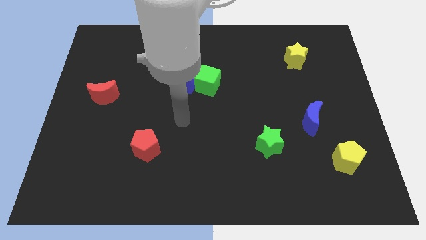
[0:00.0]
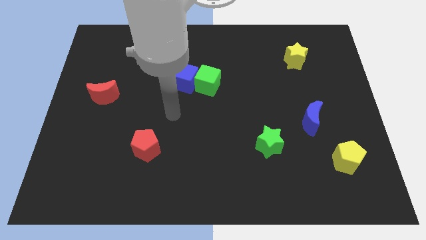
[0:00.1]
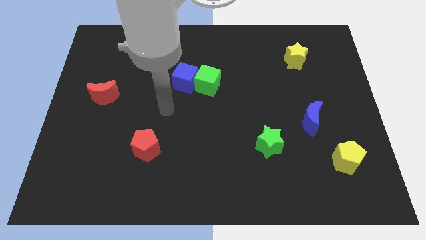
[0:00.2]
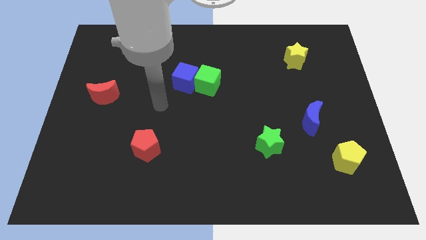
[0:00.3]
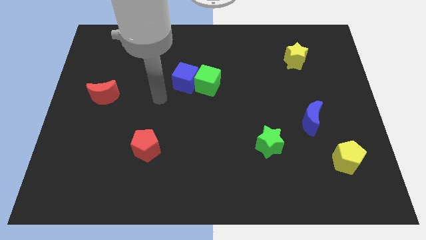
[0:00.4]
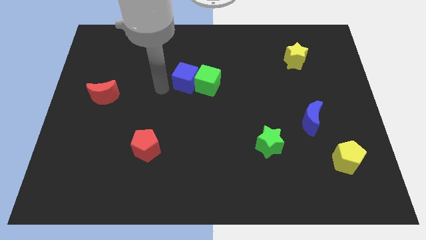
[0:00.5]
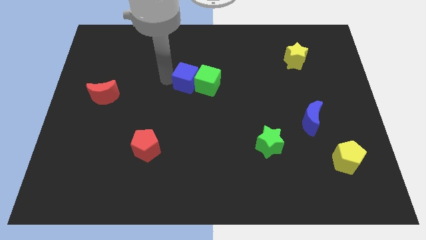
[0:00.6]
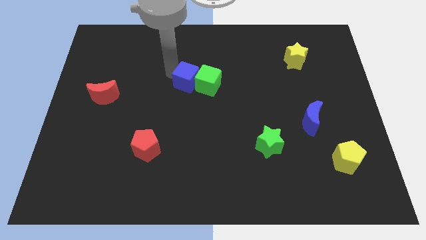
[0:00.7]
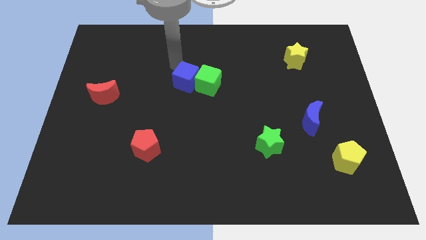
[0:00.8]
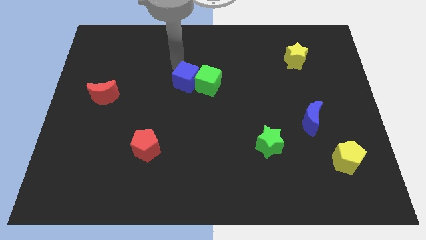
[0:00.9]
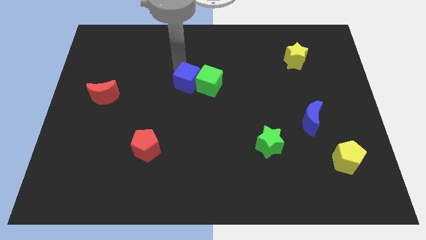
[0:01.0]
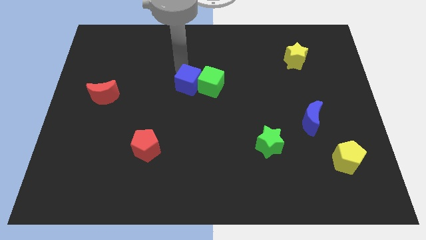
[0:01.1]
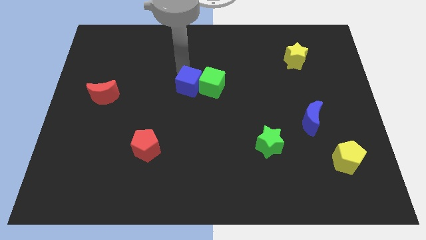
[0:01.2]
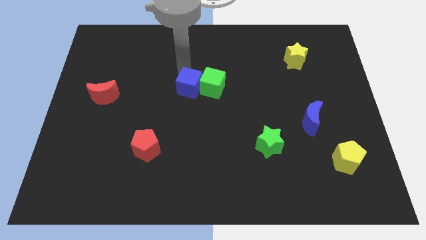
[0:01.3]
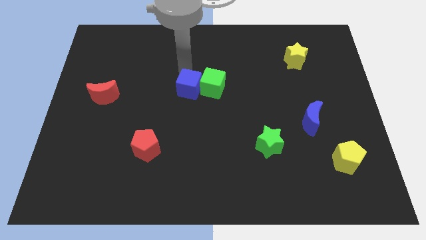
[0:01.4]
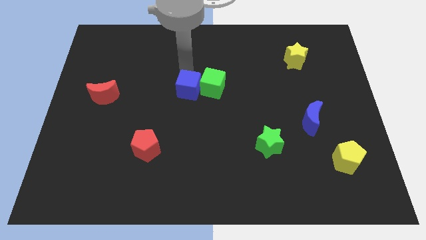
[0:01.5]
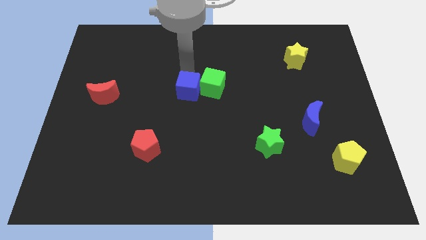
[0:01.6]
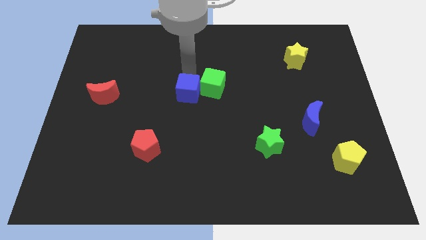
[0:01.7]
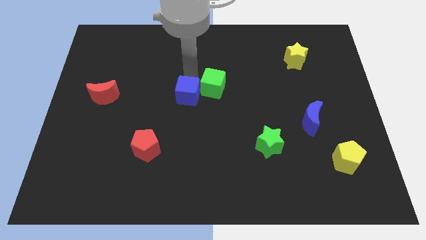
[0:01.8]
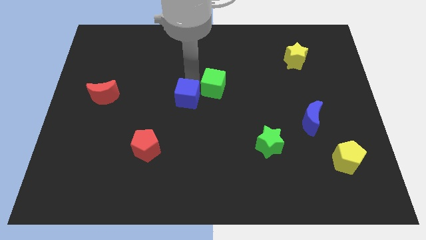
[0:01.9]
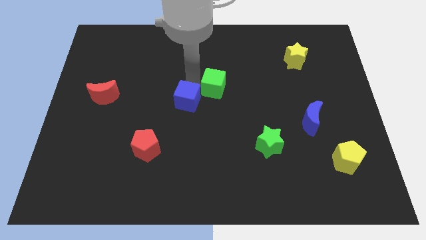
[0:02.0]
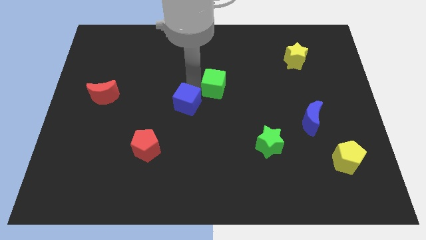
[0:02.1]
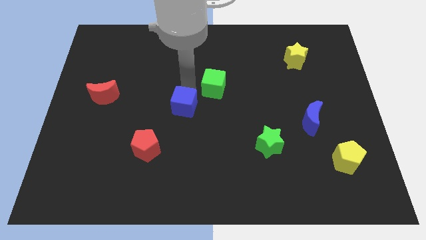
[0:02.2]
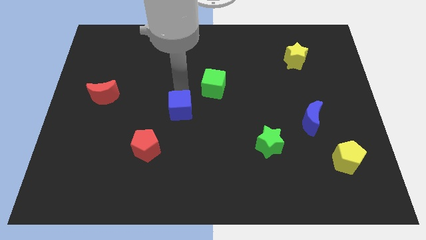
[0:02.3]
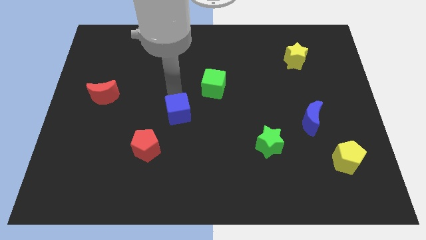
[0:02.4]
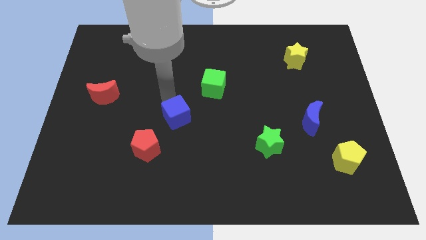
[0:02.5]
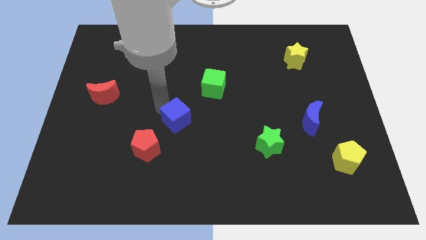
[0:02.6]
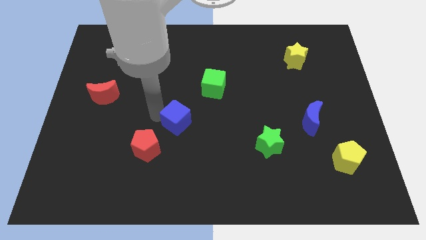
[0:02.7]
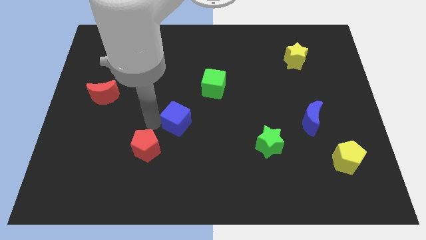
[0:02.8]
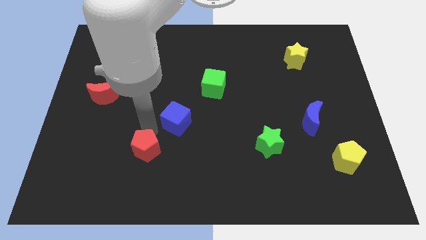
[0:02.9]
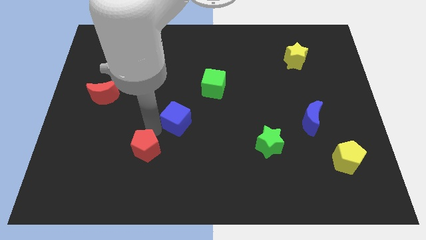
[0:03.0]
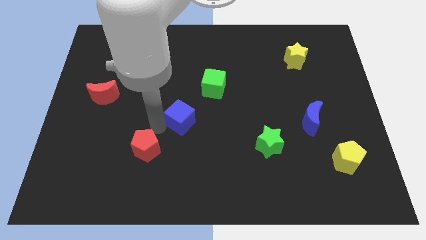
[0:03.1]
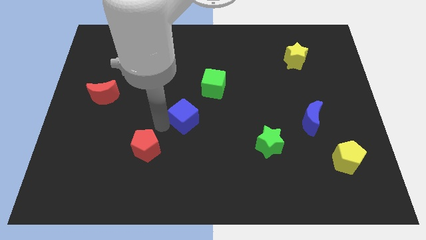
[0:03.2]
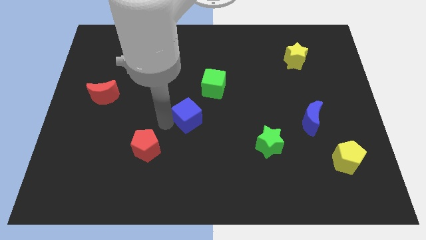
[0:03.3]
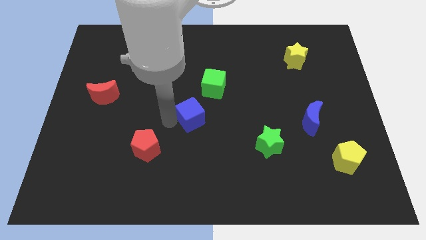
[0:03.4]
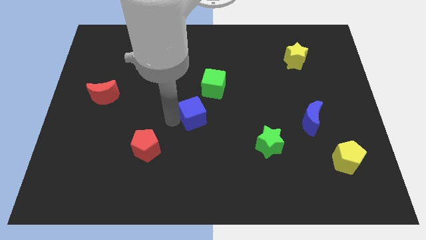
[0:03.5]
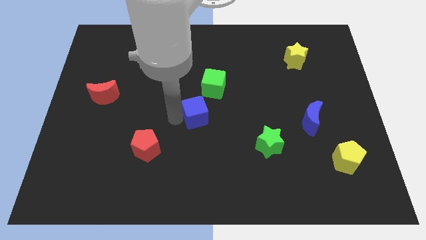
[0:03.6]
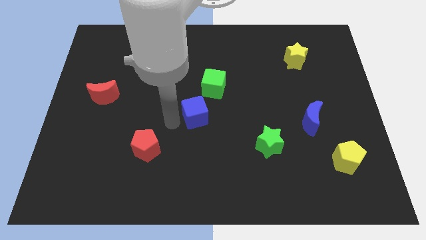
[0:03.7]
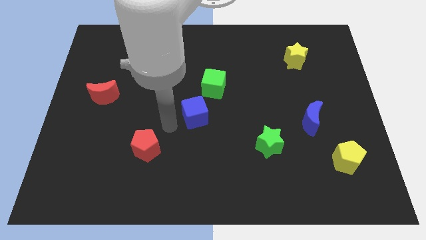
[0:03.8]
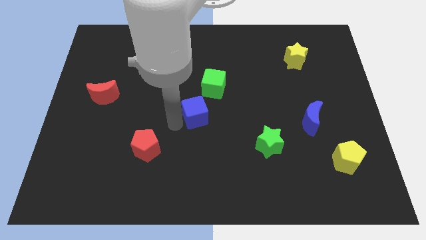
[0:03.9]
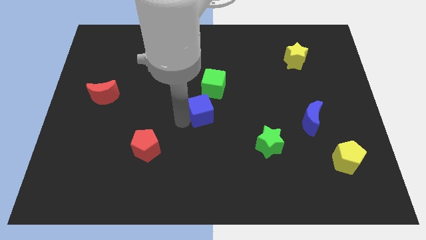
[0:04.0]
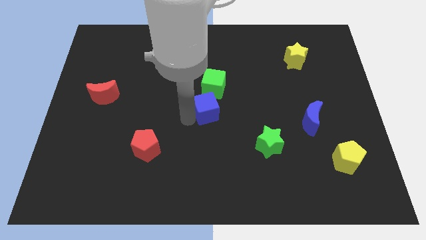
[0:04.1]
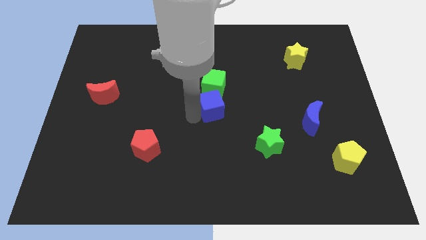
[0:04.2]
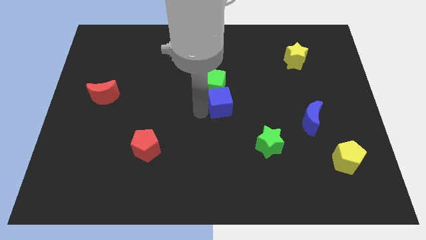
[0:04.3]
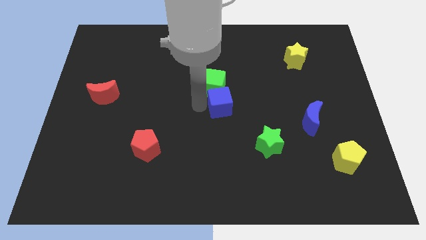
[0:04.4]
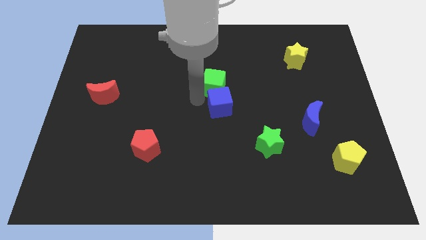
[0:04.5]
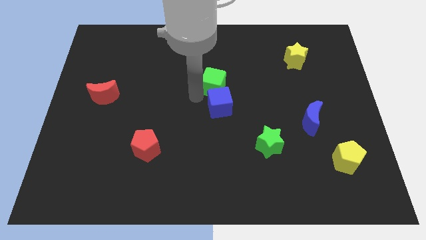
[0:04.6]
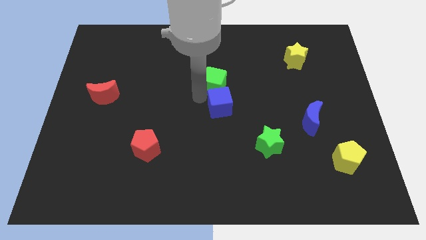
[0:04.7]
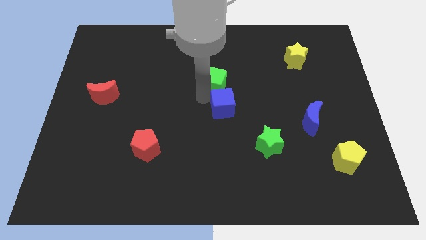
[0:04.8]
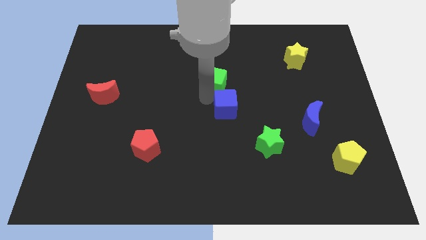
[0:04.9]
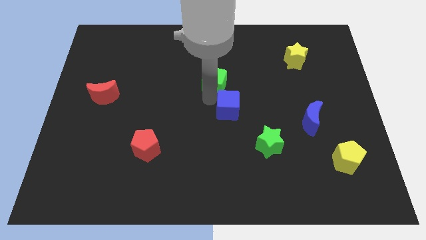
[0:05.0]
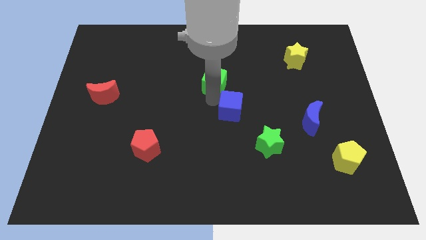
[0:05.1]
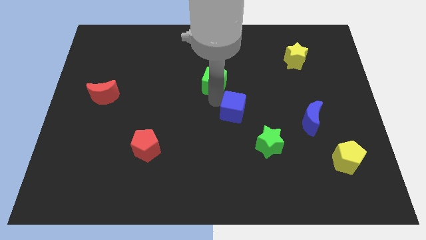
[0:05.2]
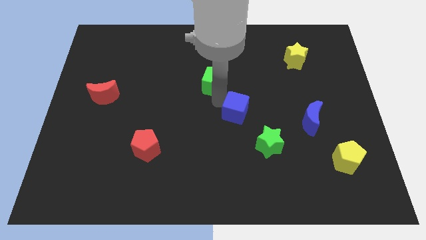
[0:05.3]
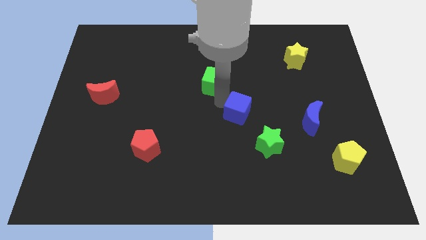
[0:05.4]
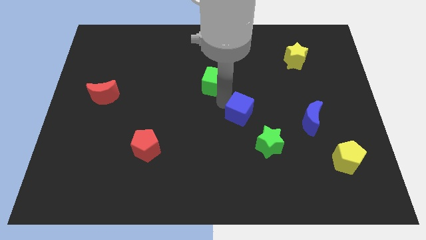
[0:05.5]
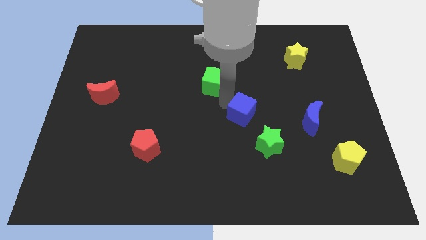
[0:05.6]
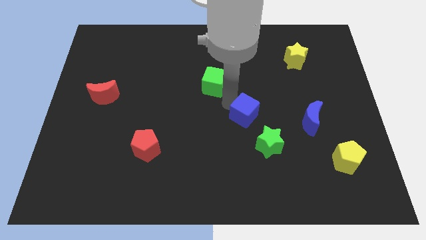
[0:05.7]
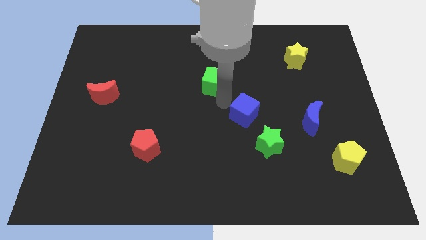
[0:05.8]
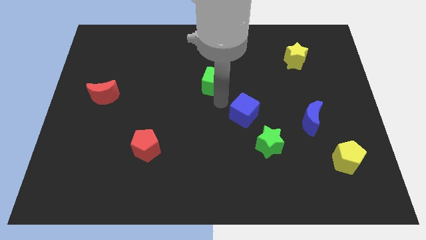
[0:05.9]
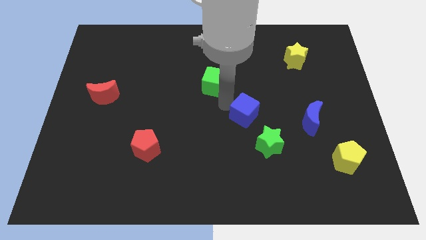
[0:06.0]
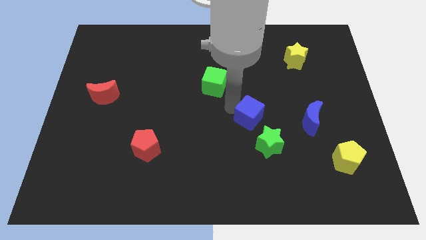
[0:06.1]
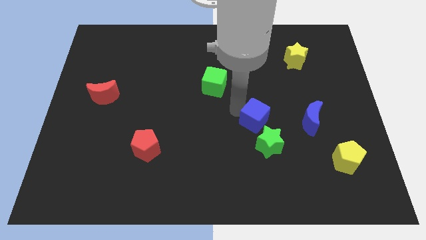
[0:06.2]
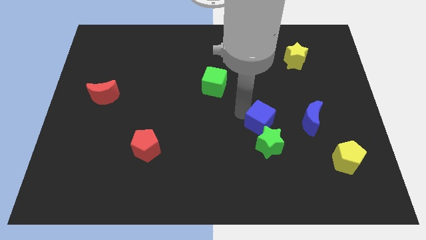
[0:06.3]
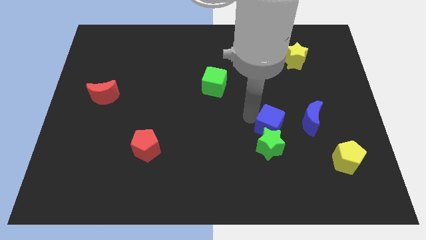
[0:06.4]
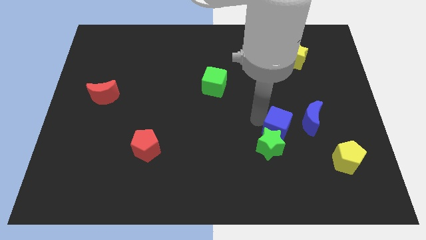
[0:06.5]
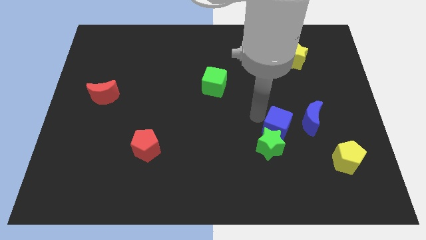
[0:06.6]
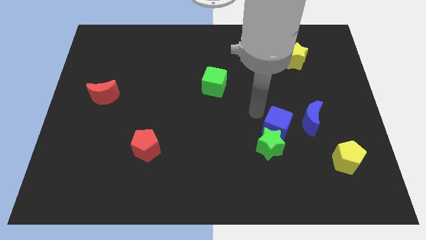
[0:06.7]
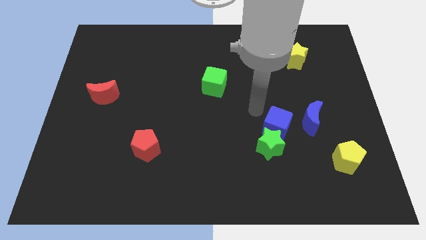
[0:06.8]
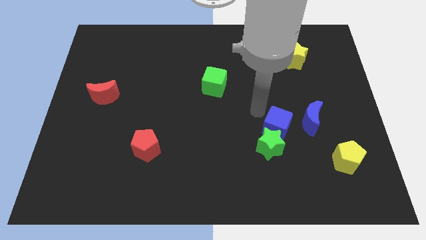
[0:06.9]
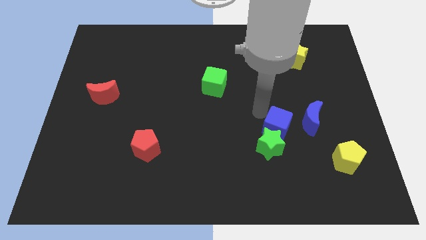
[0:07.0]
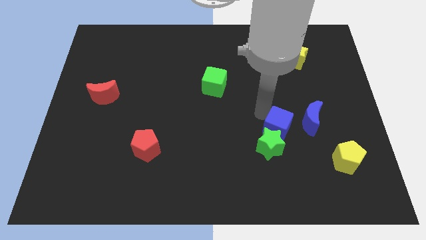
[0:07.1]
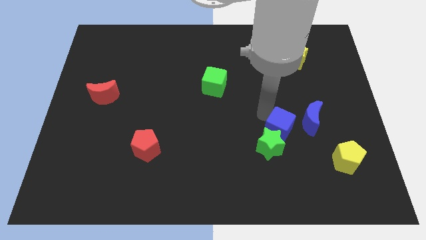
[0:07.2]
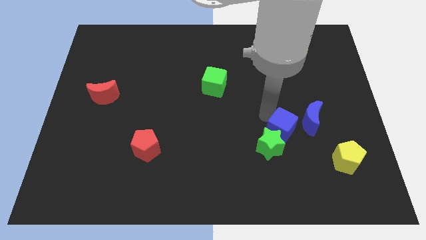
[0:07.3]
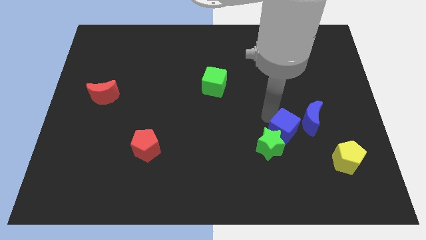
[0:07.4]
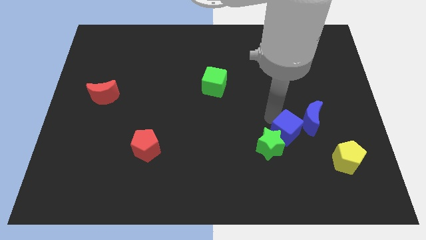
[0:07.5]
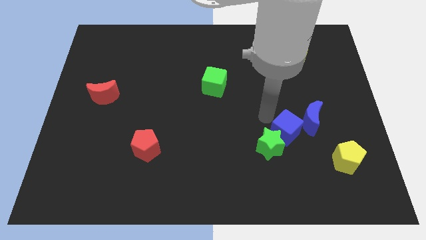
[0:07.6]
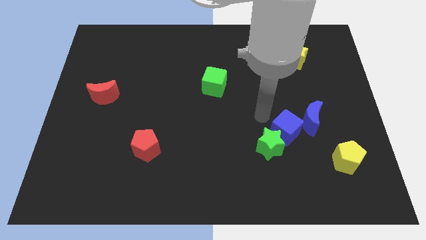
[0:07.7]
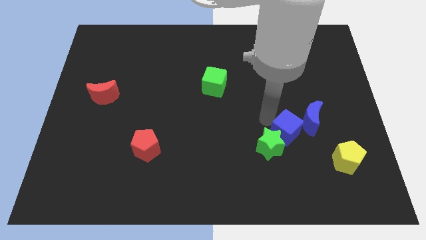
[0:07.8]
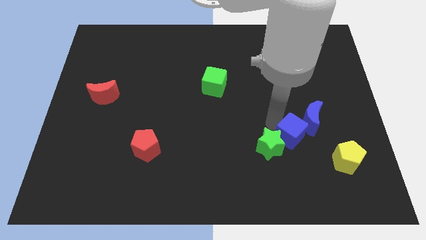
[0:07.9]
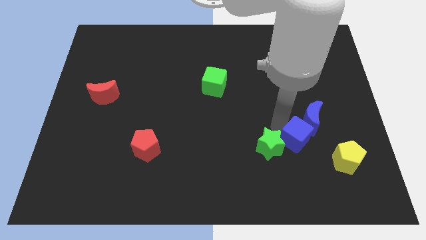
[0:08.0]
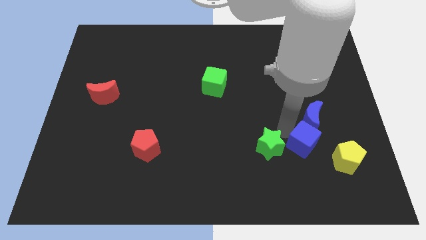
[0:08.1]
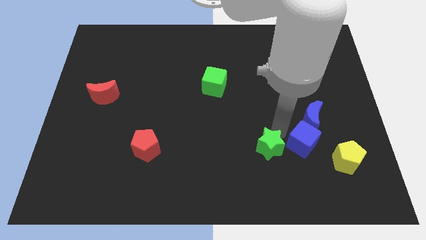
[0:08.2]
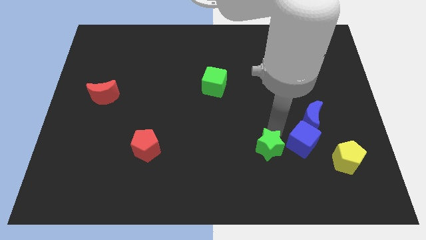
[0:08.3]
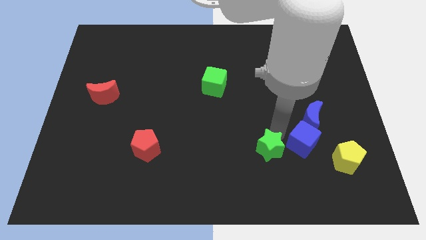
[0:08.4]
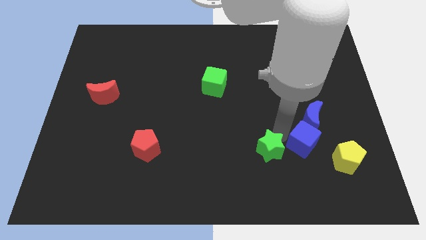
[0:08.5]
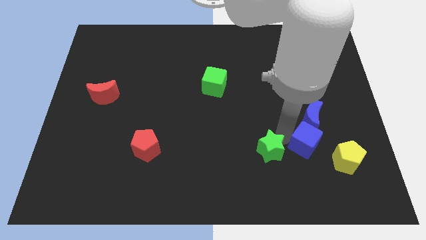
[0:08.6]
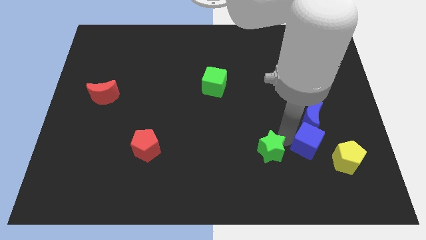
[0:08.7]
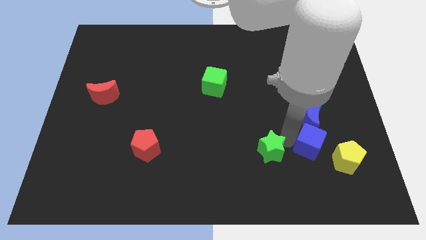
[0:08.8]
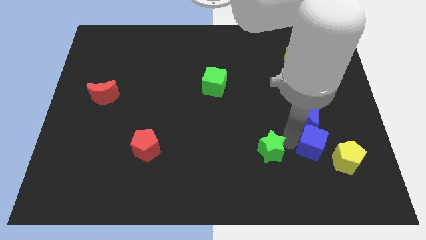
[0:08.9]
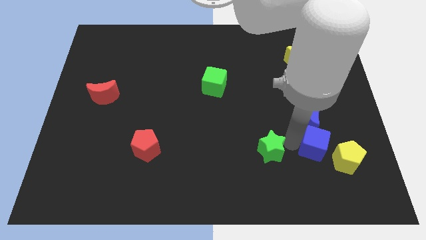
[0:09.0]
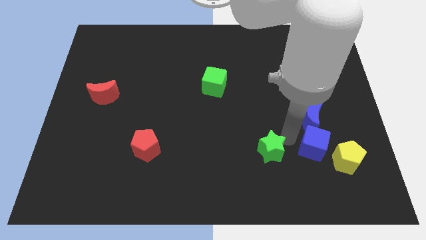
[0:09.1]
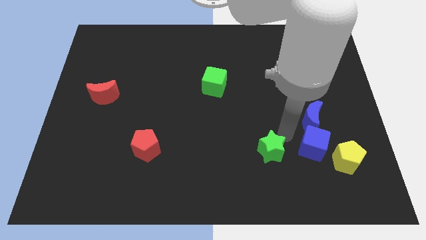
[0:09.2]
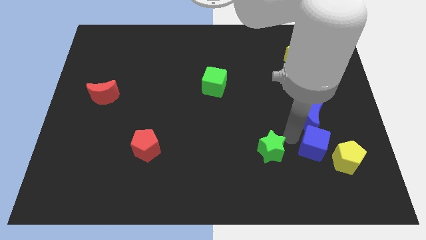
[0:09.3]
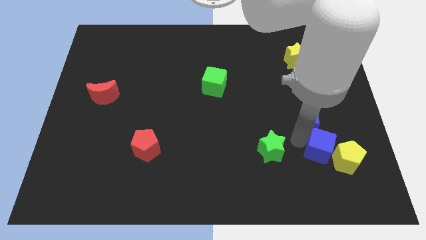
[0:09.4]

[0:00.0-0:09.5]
push the blue cube towards the yellow pentagon
